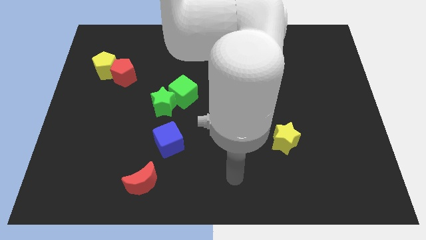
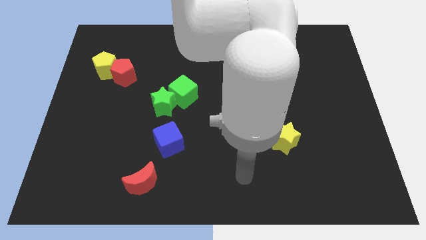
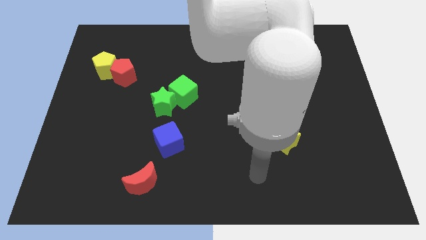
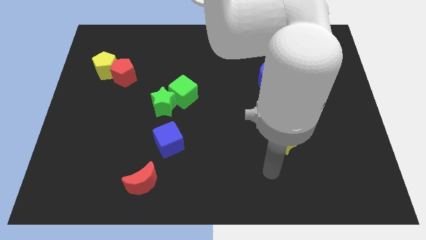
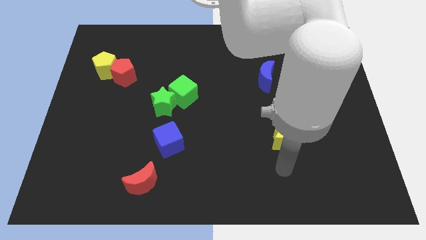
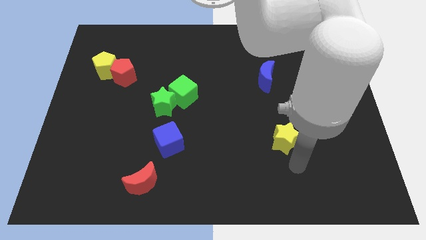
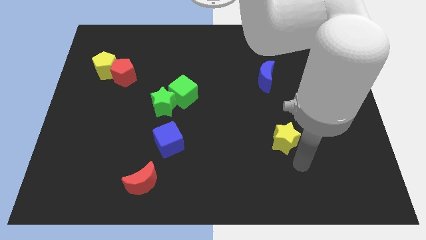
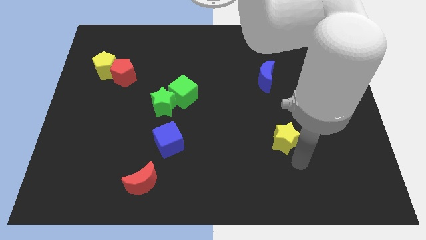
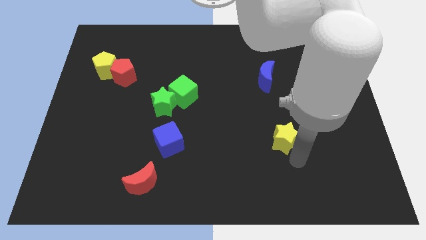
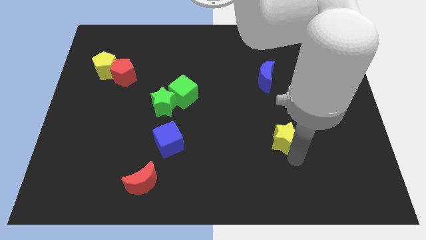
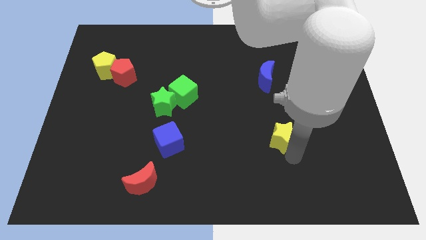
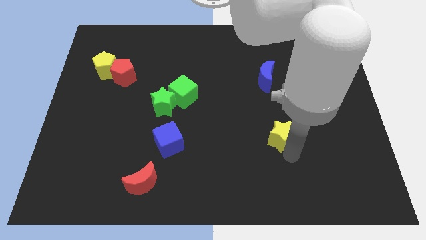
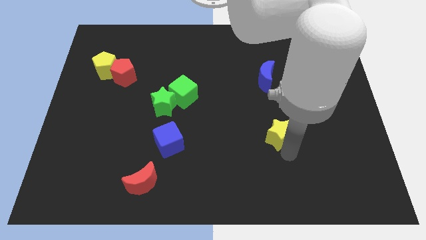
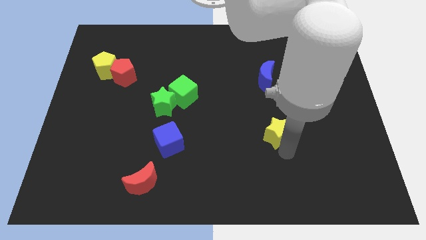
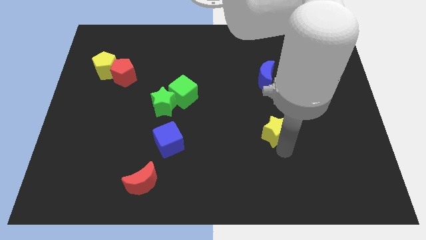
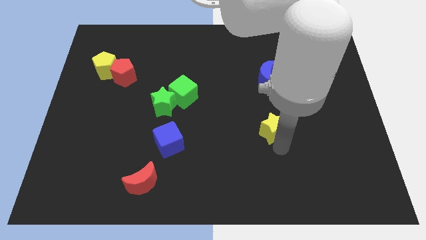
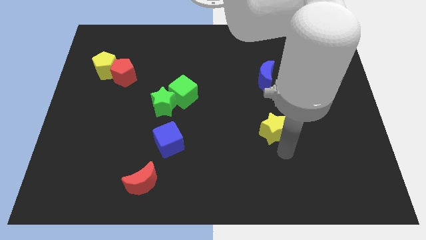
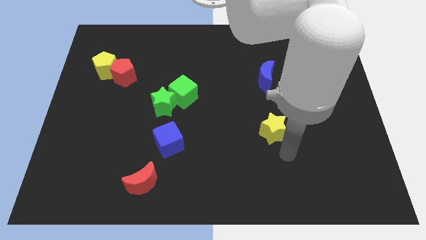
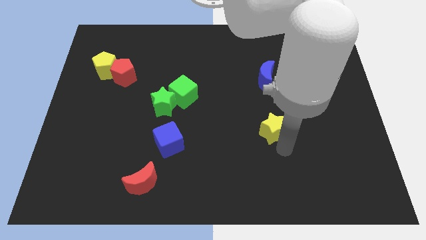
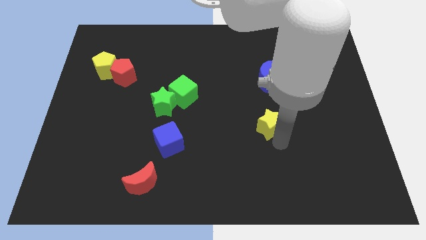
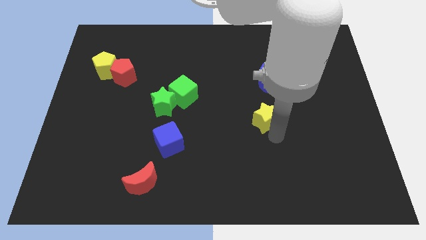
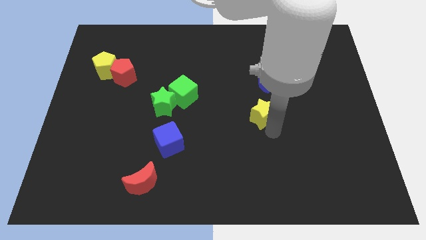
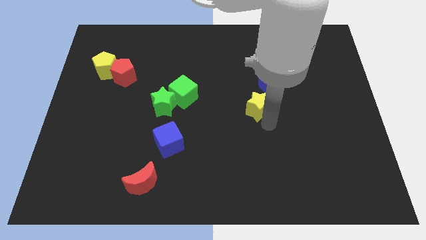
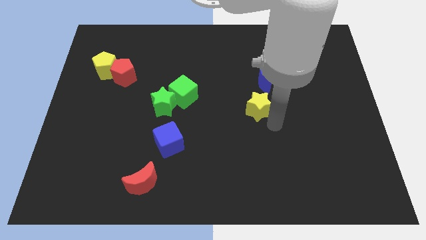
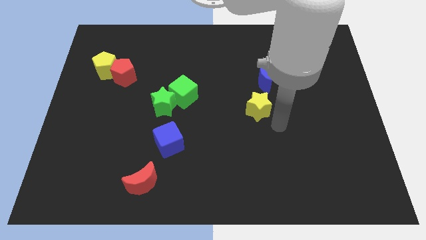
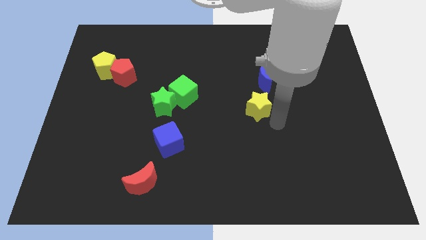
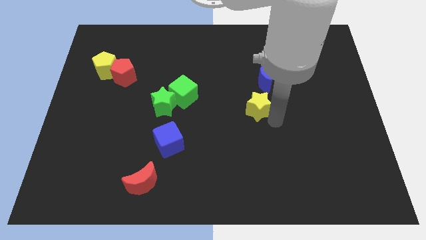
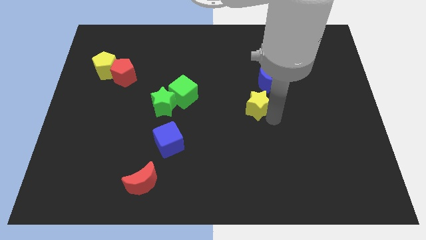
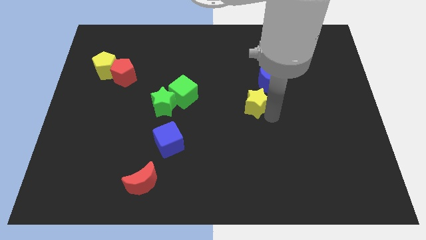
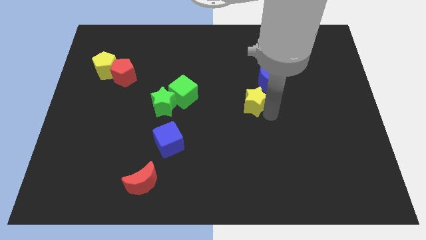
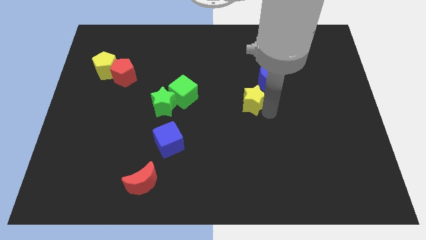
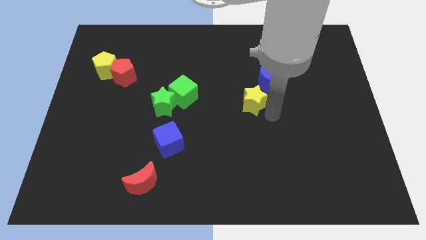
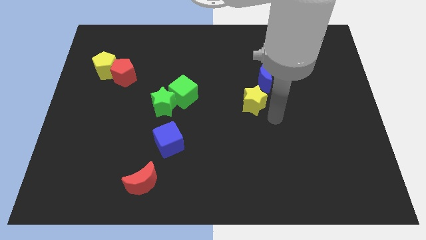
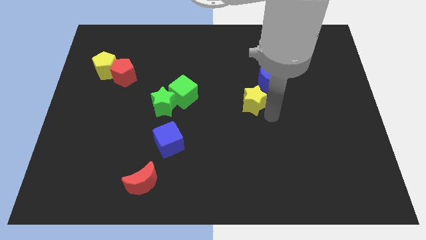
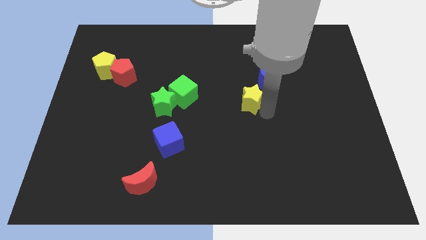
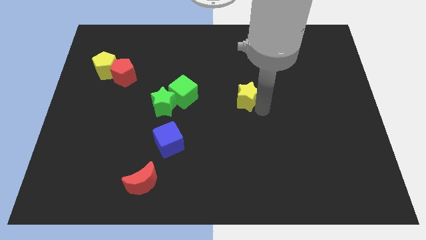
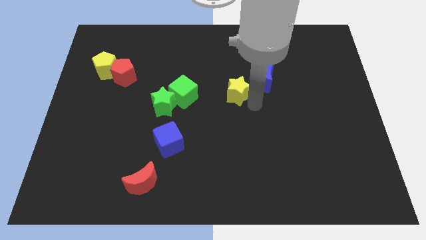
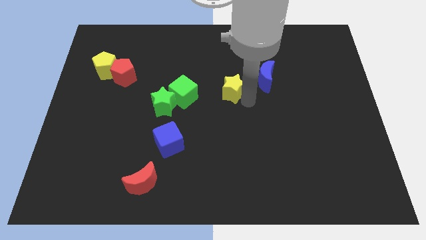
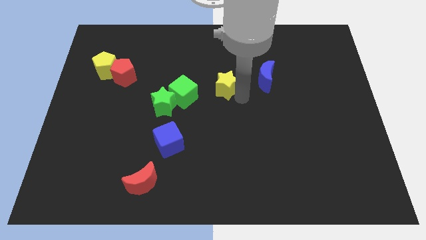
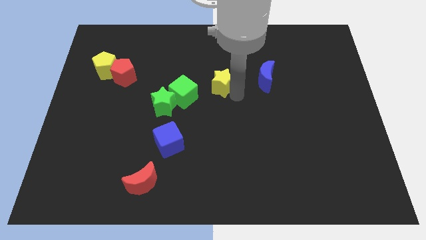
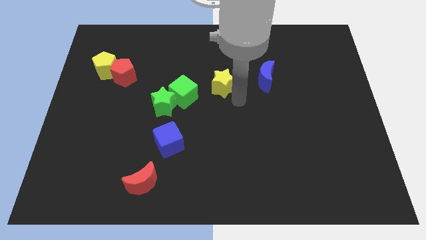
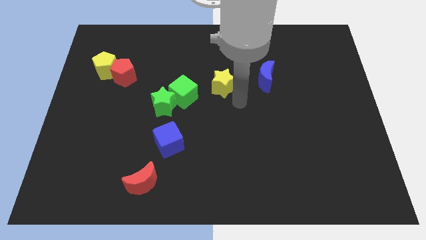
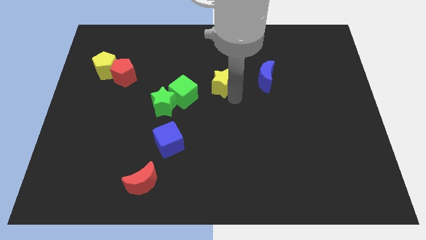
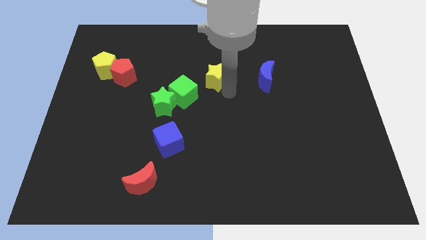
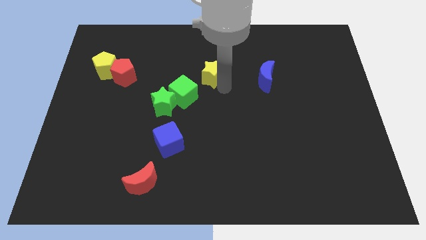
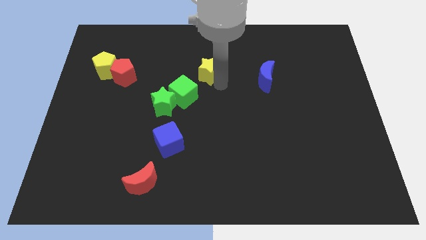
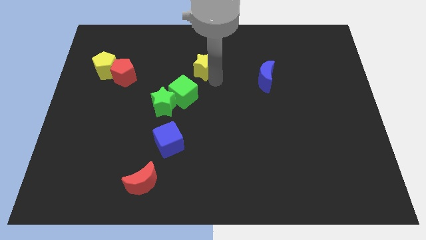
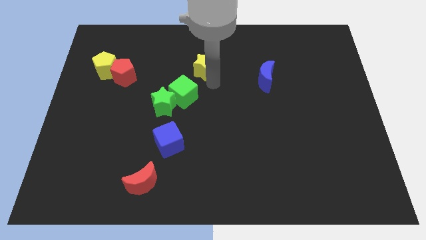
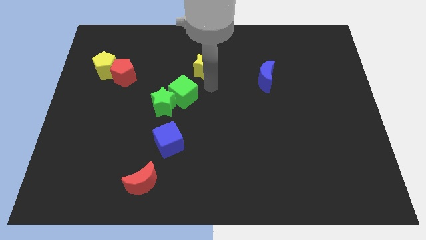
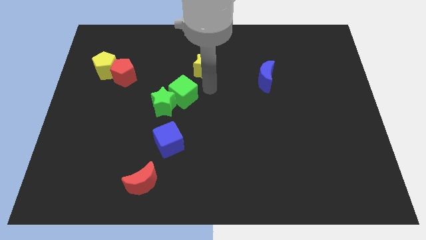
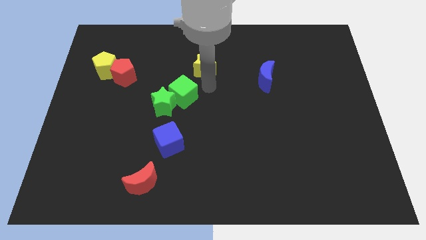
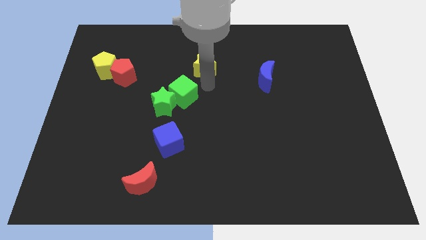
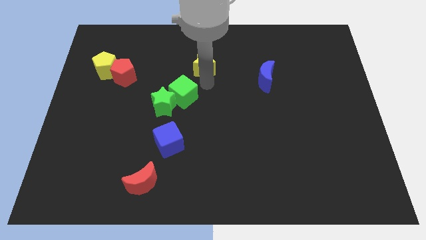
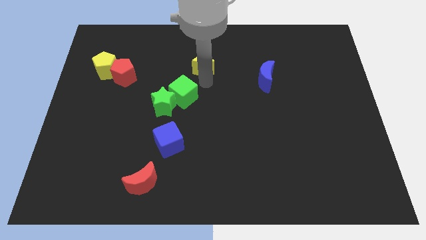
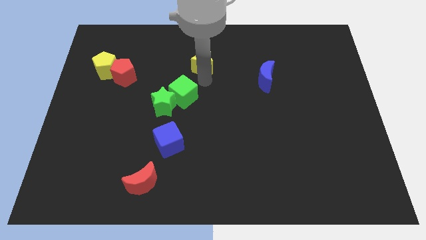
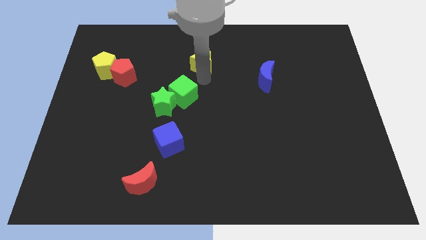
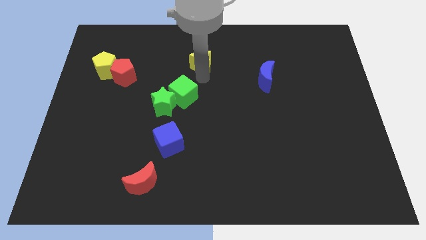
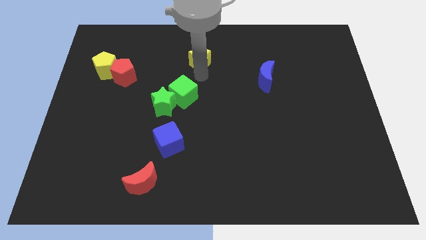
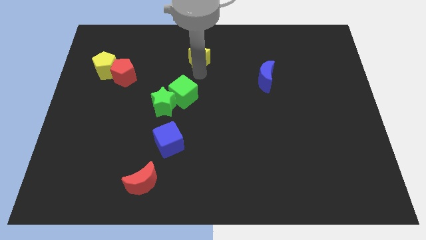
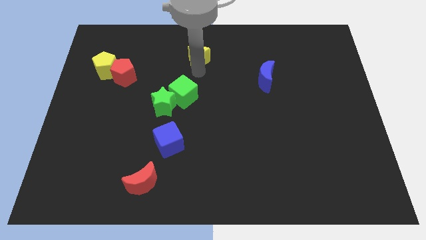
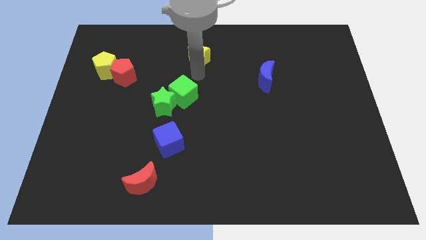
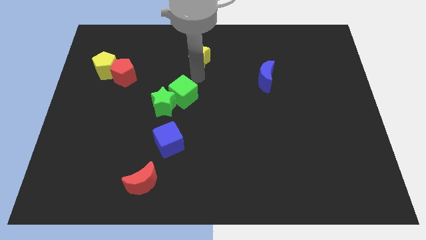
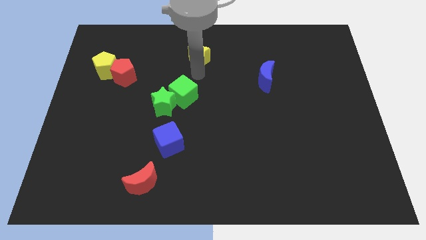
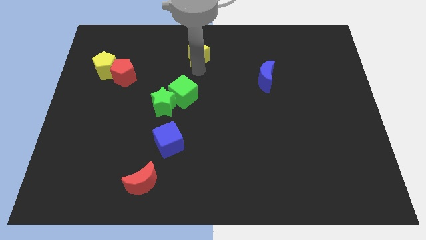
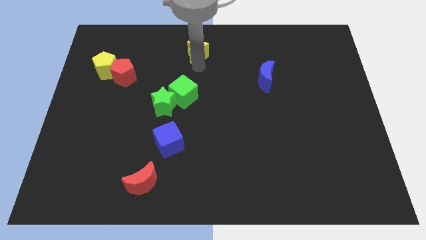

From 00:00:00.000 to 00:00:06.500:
move the yellow star to the top side
